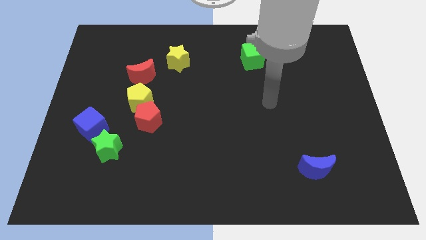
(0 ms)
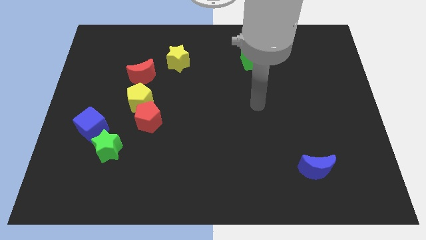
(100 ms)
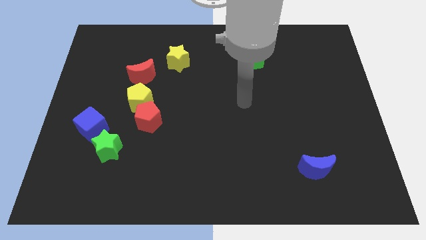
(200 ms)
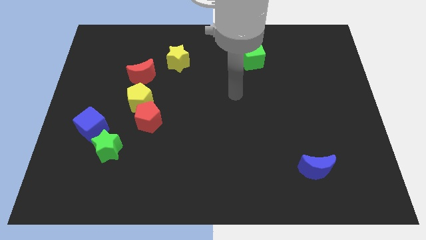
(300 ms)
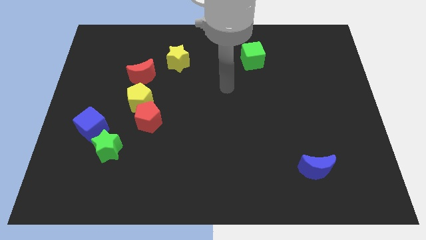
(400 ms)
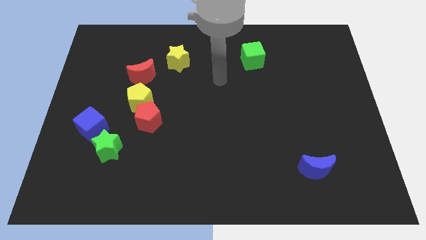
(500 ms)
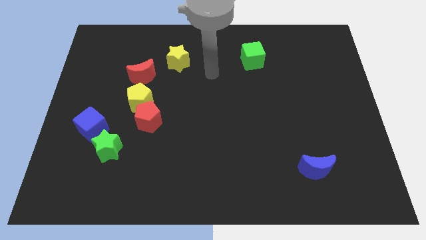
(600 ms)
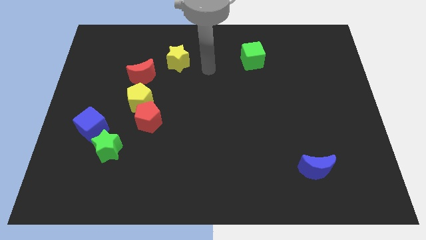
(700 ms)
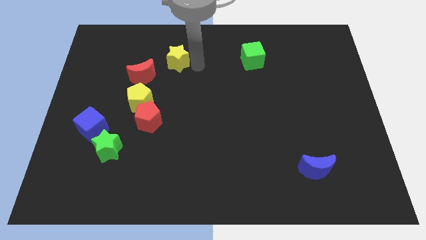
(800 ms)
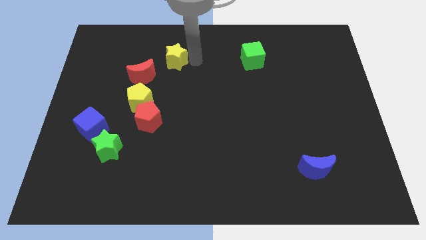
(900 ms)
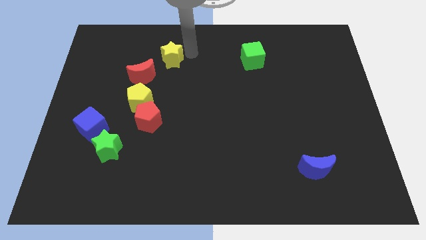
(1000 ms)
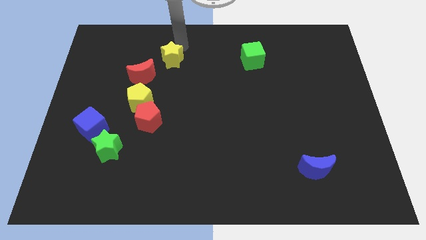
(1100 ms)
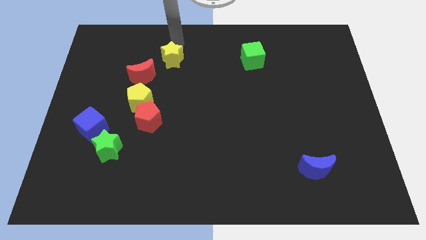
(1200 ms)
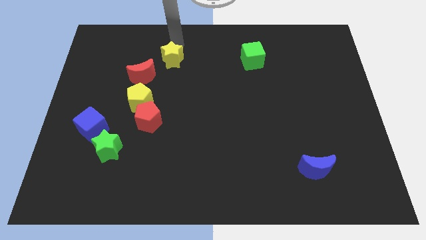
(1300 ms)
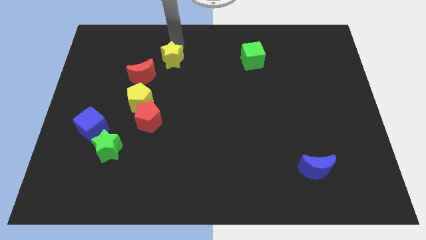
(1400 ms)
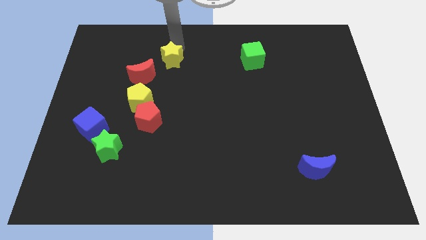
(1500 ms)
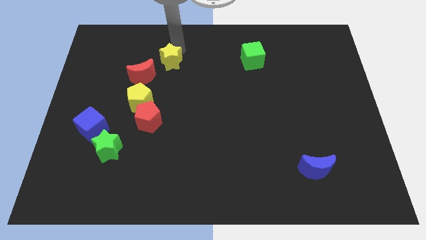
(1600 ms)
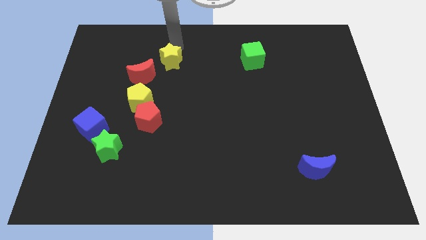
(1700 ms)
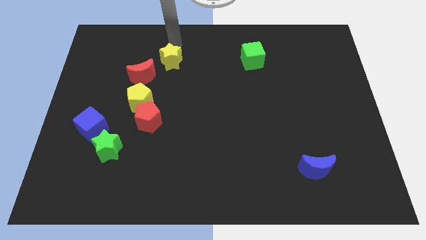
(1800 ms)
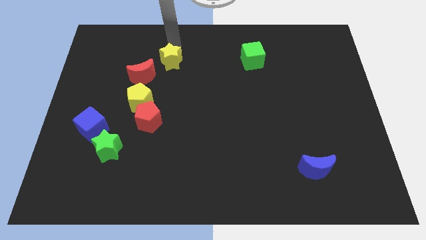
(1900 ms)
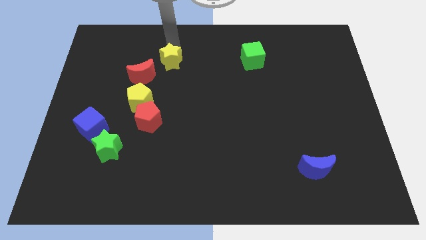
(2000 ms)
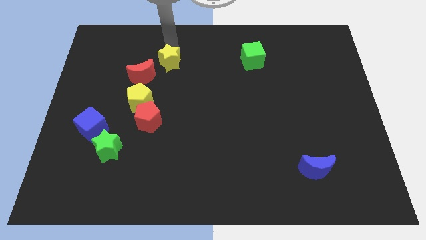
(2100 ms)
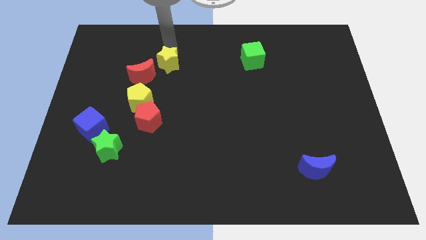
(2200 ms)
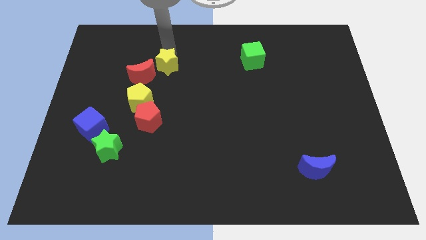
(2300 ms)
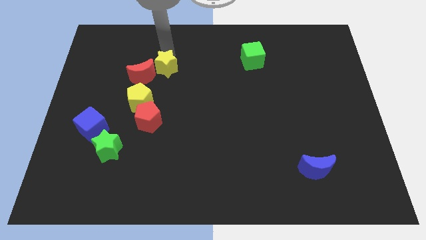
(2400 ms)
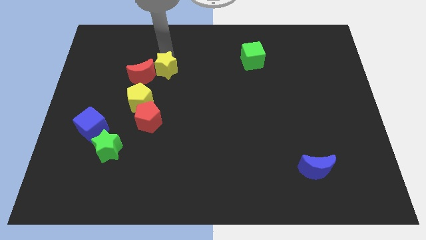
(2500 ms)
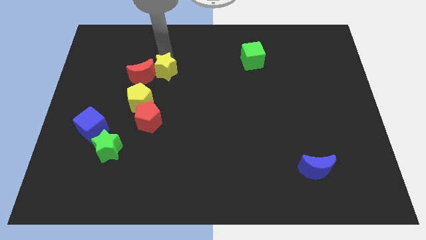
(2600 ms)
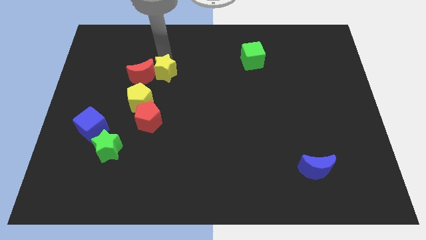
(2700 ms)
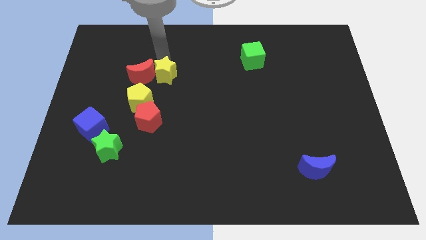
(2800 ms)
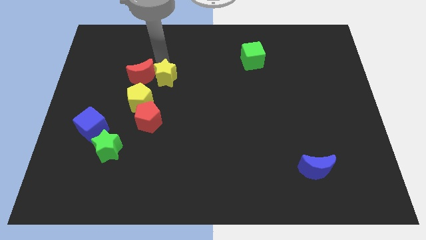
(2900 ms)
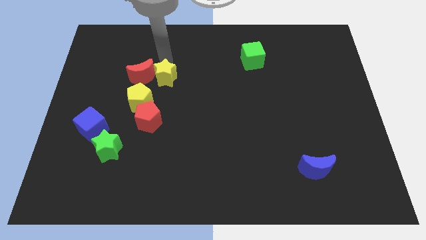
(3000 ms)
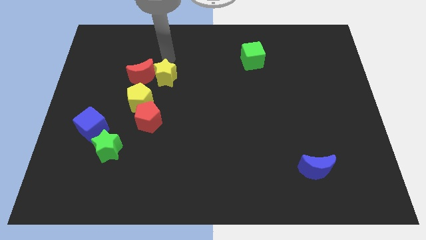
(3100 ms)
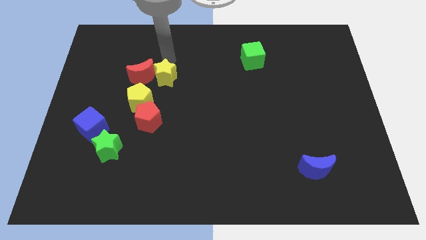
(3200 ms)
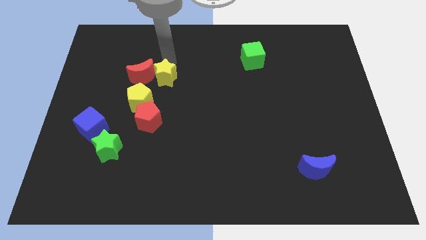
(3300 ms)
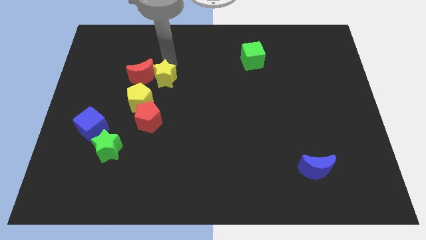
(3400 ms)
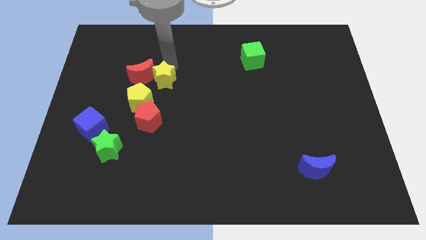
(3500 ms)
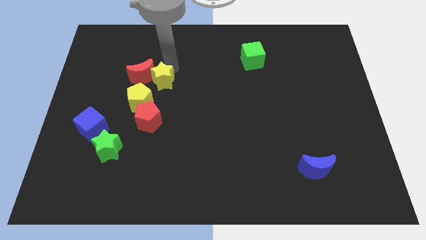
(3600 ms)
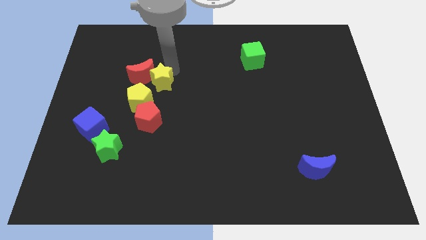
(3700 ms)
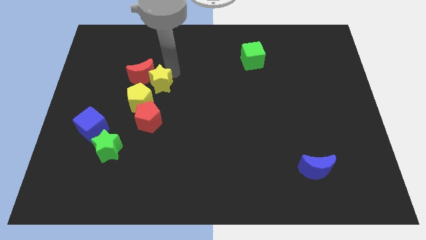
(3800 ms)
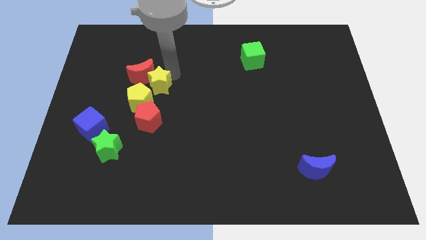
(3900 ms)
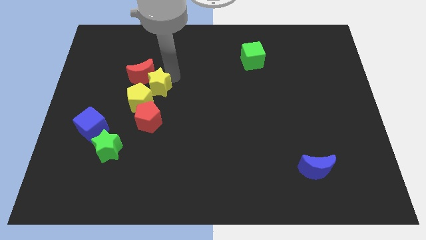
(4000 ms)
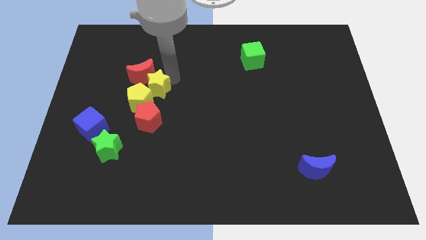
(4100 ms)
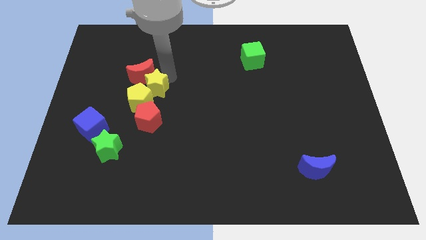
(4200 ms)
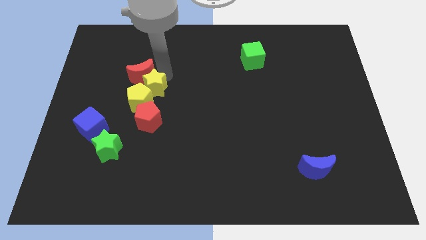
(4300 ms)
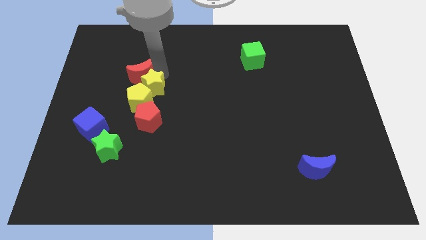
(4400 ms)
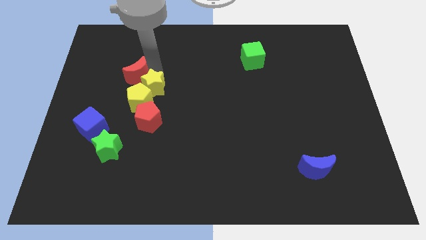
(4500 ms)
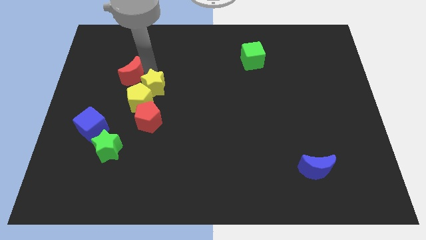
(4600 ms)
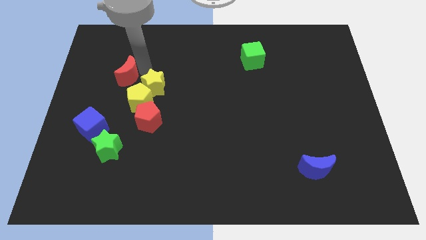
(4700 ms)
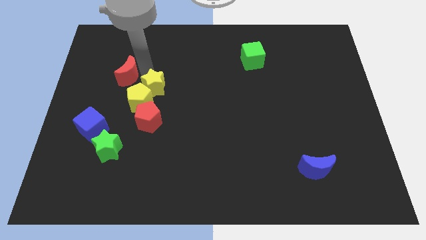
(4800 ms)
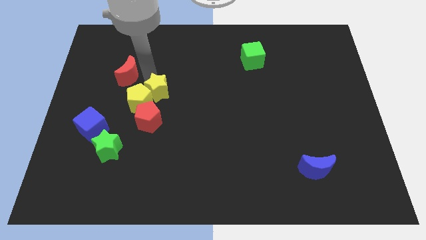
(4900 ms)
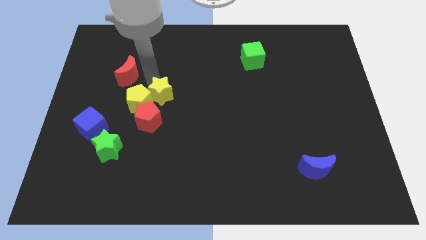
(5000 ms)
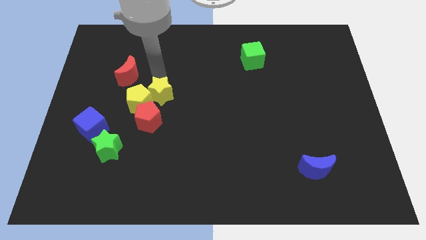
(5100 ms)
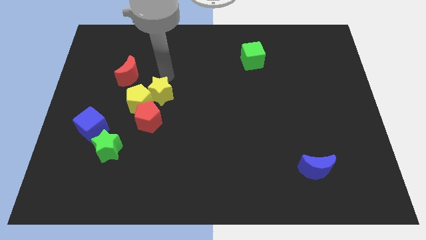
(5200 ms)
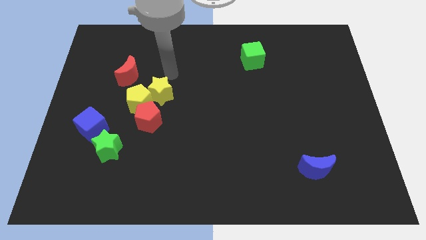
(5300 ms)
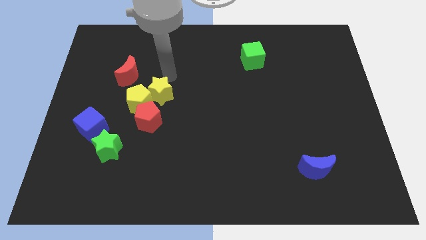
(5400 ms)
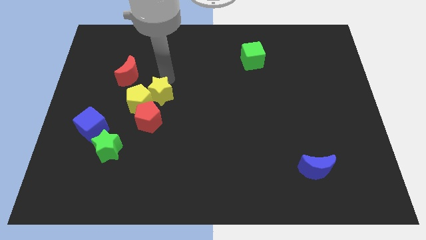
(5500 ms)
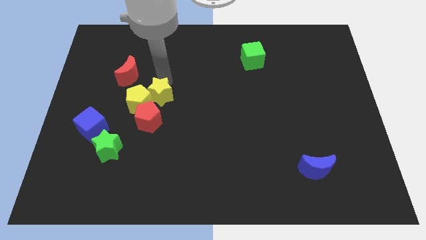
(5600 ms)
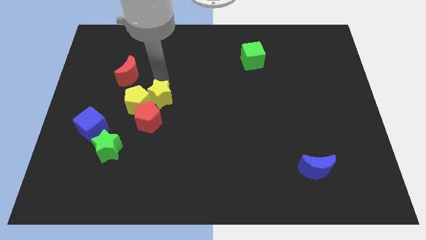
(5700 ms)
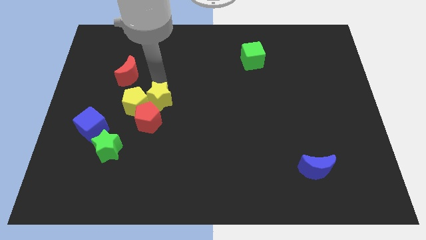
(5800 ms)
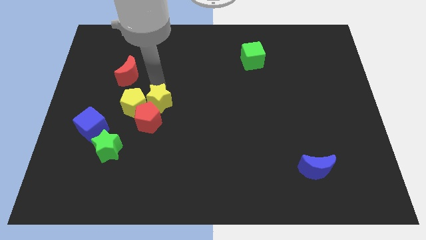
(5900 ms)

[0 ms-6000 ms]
put the yellow star close to the red pentagon

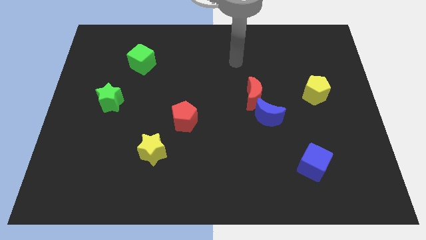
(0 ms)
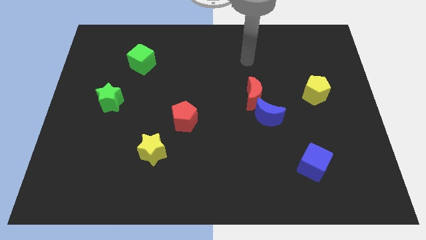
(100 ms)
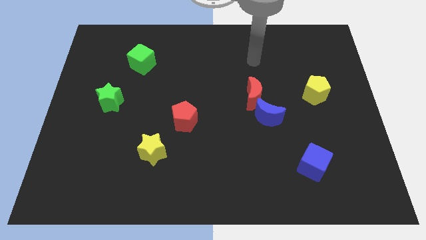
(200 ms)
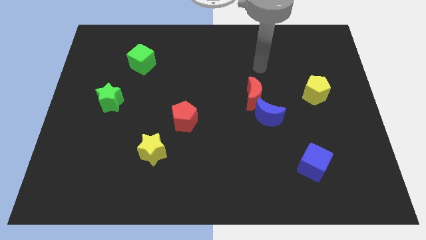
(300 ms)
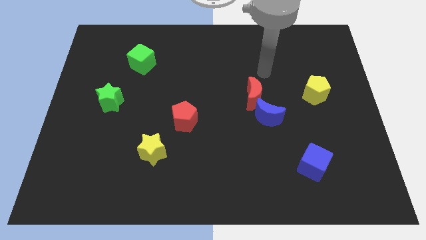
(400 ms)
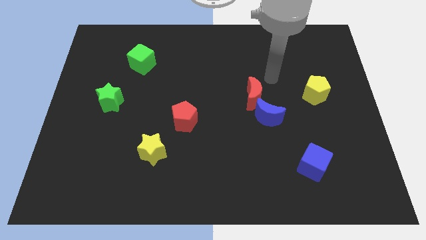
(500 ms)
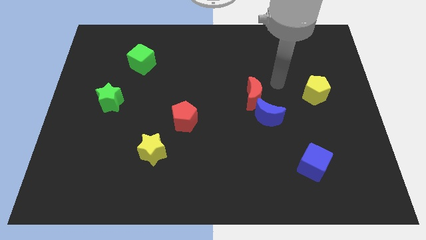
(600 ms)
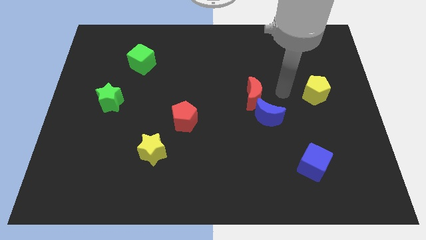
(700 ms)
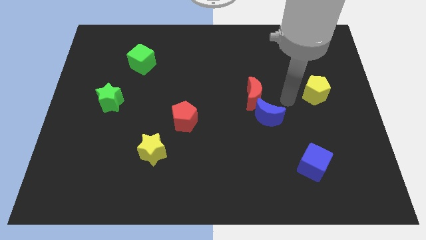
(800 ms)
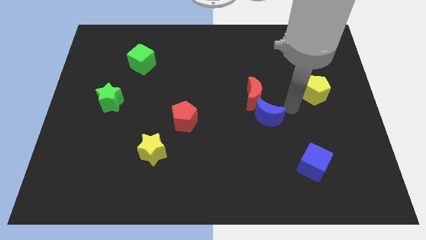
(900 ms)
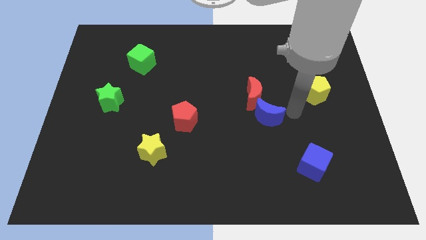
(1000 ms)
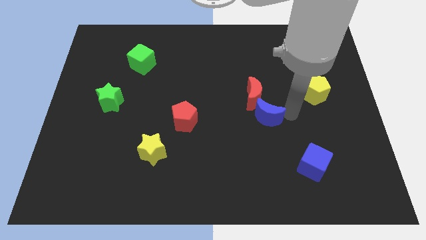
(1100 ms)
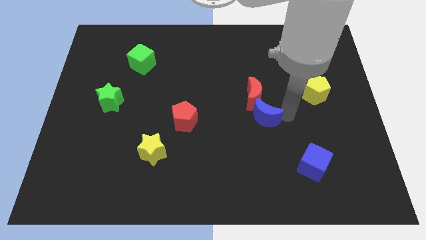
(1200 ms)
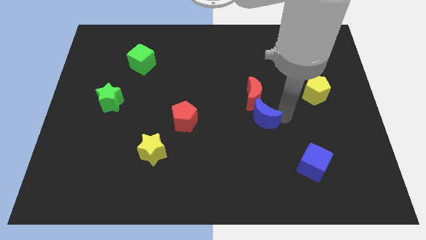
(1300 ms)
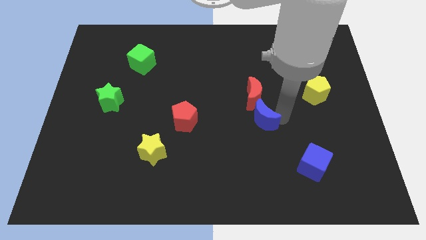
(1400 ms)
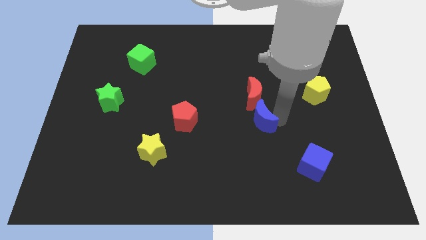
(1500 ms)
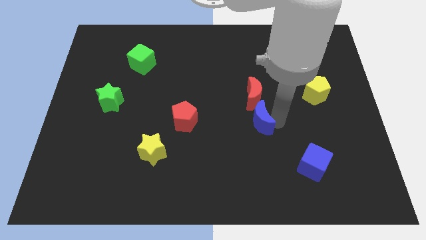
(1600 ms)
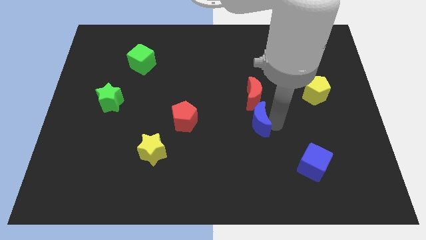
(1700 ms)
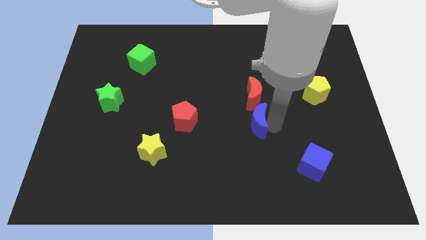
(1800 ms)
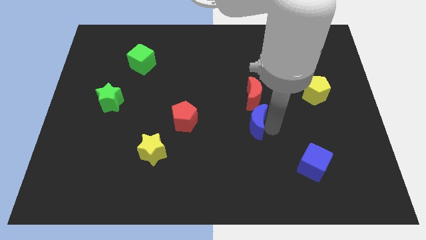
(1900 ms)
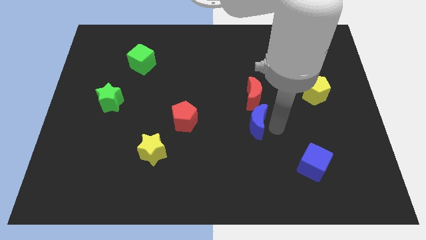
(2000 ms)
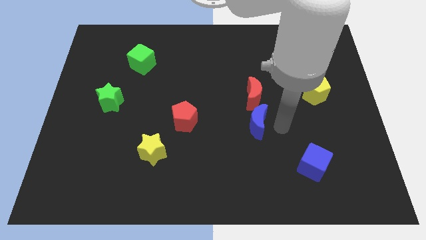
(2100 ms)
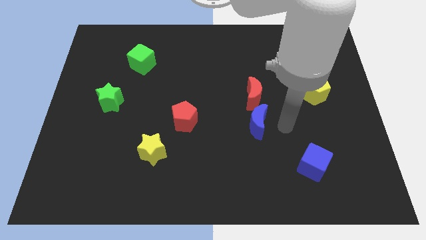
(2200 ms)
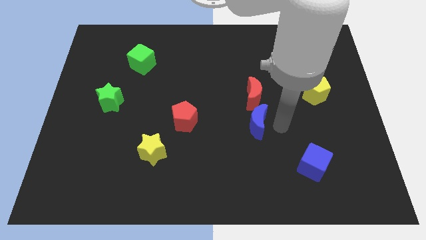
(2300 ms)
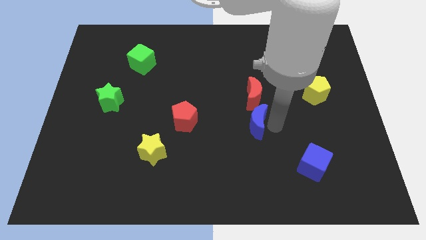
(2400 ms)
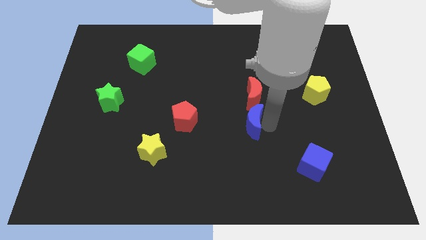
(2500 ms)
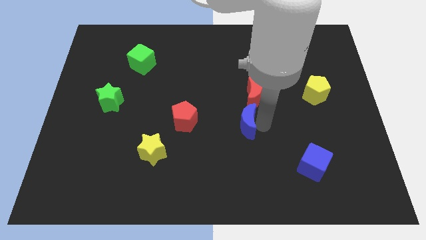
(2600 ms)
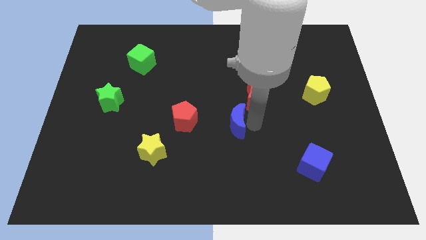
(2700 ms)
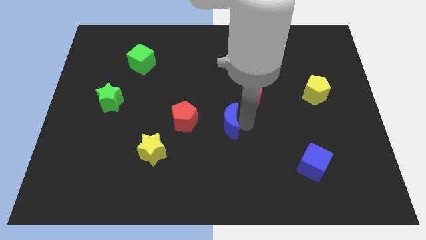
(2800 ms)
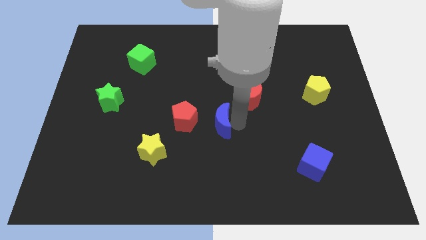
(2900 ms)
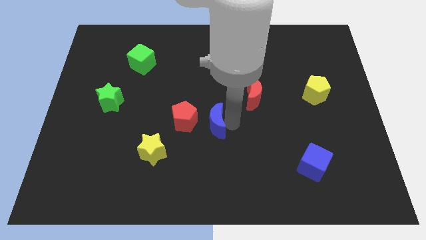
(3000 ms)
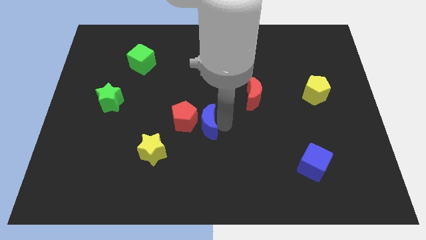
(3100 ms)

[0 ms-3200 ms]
slide the blue moon close to the red pentagon
